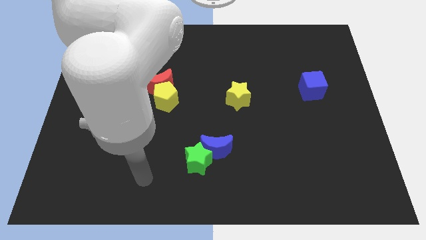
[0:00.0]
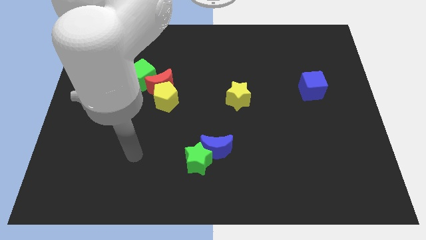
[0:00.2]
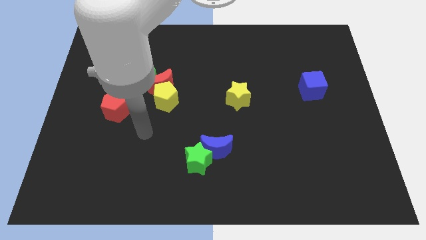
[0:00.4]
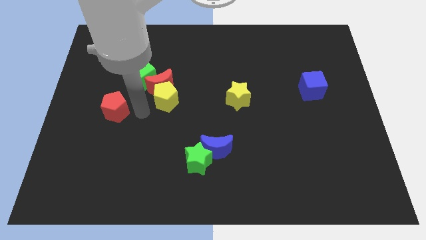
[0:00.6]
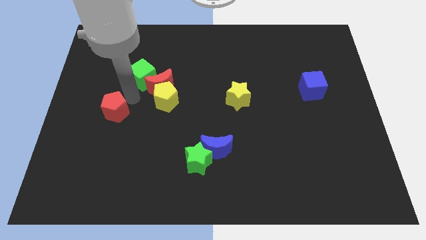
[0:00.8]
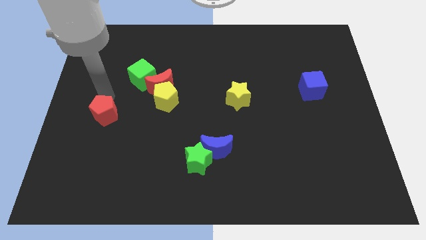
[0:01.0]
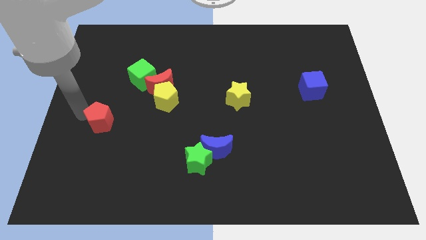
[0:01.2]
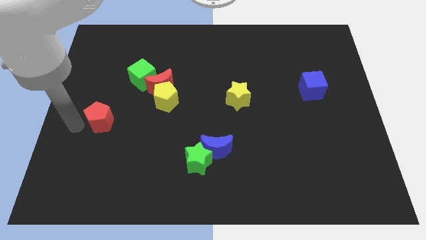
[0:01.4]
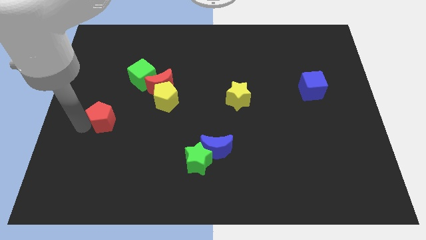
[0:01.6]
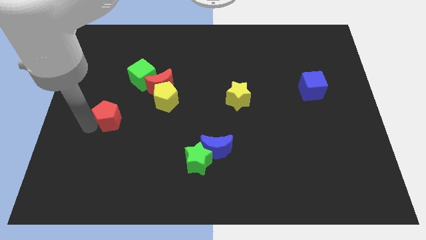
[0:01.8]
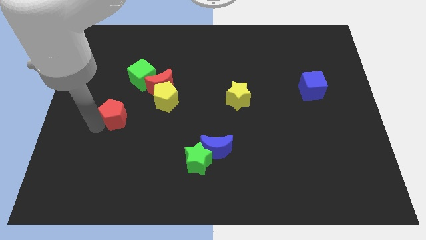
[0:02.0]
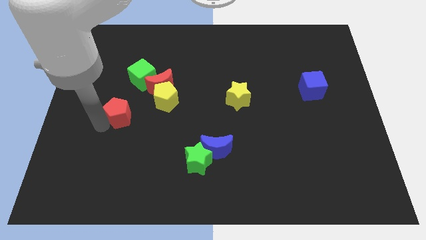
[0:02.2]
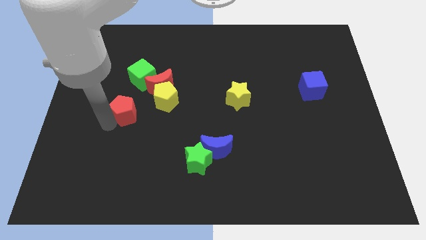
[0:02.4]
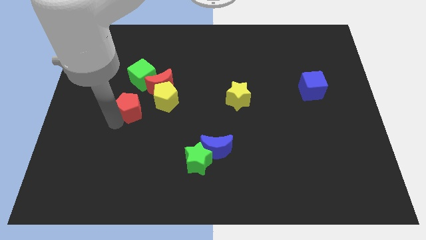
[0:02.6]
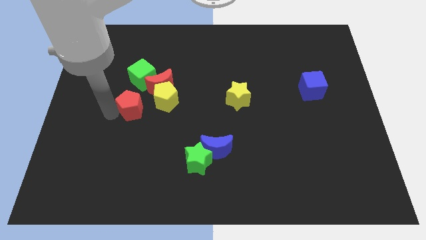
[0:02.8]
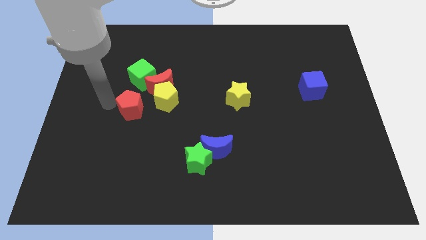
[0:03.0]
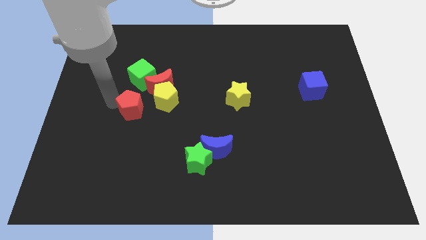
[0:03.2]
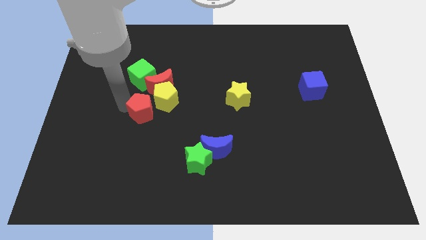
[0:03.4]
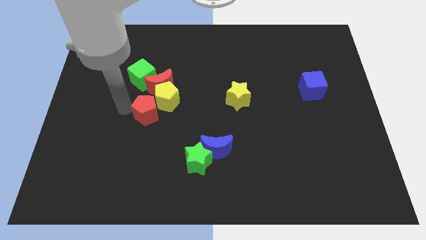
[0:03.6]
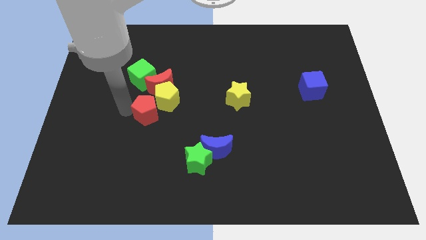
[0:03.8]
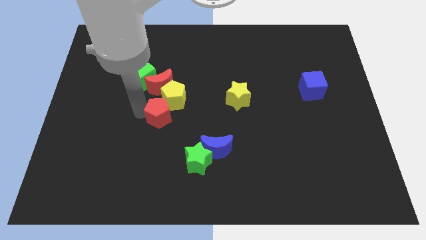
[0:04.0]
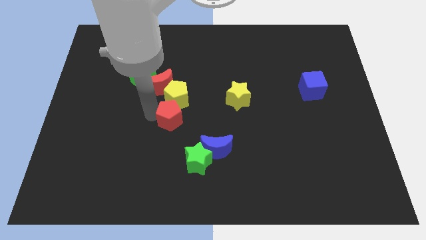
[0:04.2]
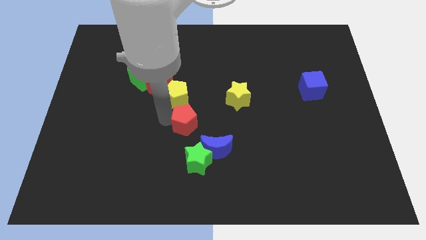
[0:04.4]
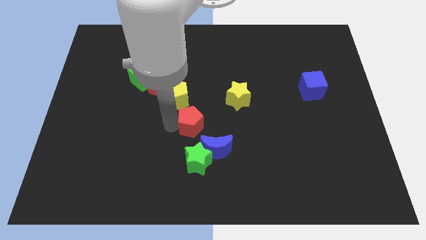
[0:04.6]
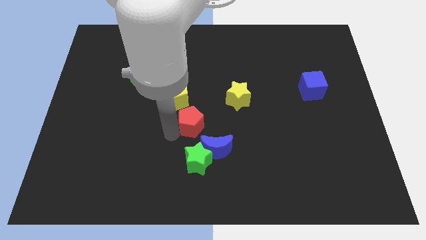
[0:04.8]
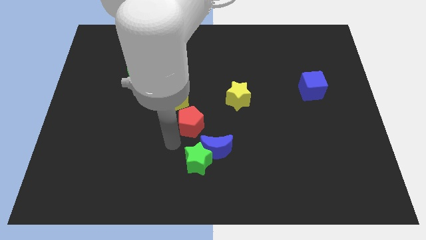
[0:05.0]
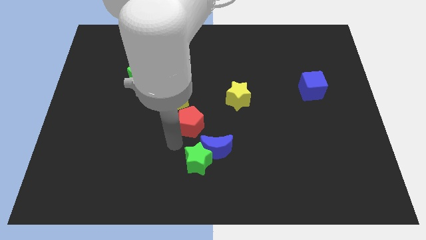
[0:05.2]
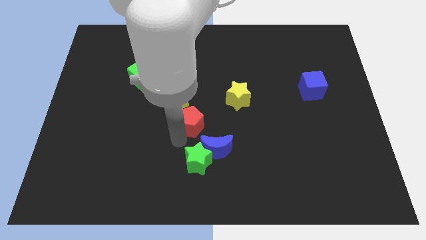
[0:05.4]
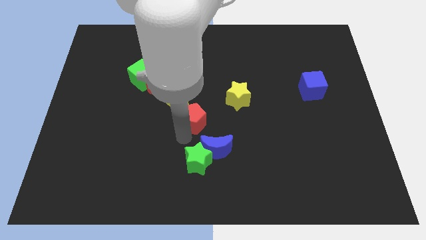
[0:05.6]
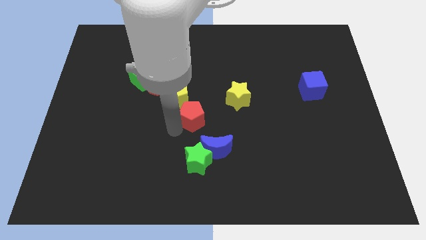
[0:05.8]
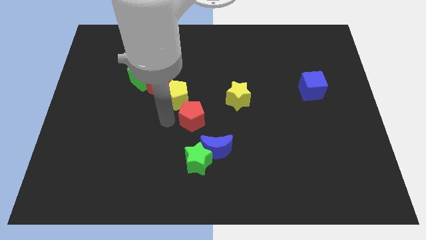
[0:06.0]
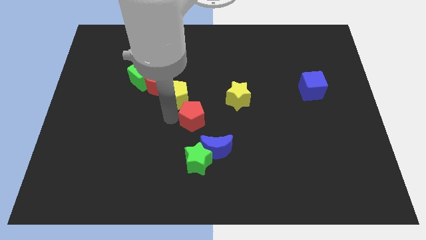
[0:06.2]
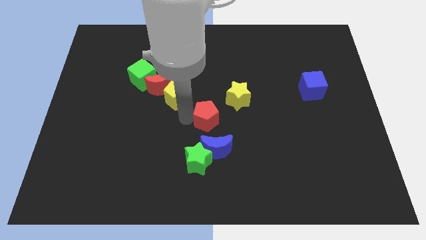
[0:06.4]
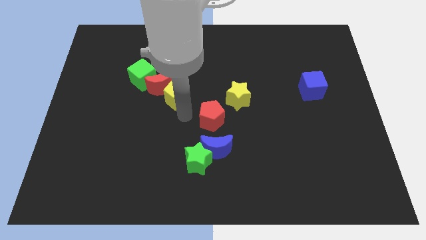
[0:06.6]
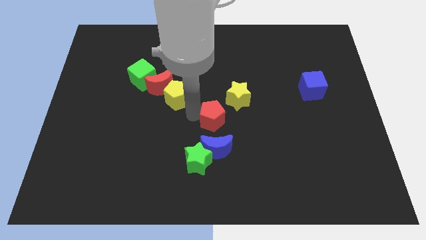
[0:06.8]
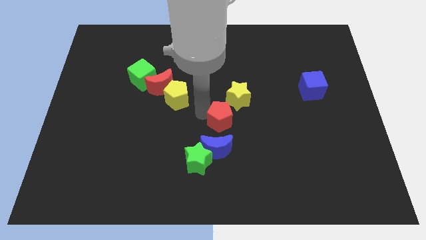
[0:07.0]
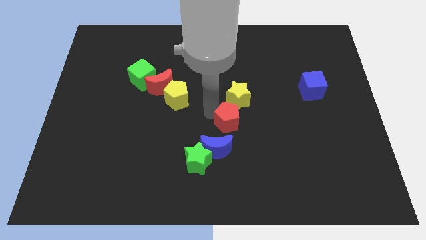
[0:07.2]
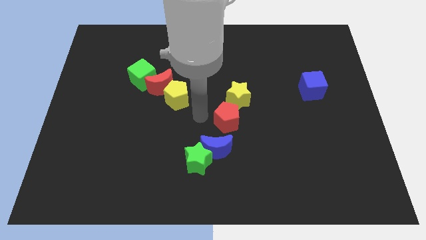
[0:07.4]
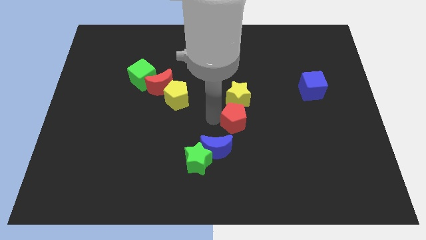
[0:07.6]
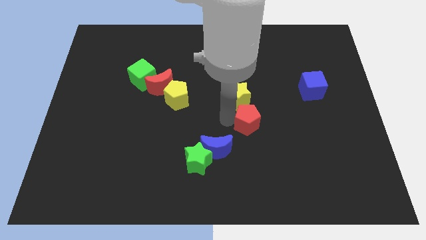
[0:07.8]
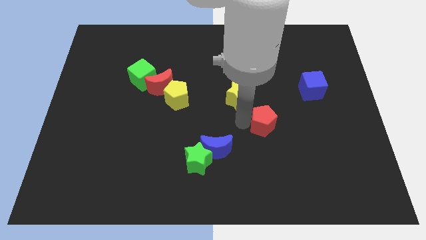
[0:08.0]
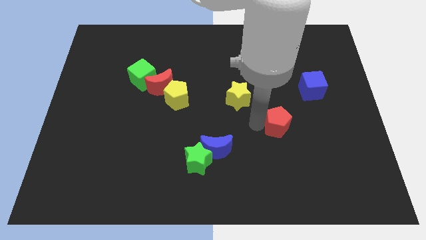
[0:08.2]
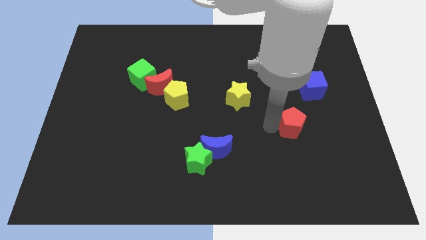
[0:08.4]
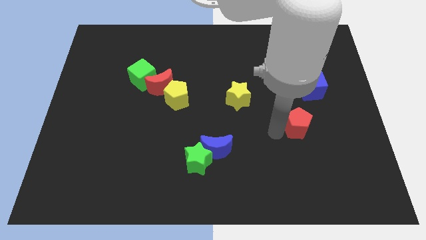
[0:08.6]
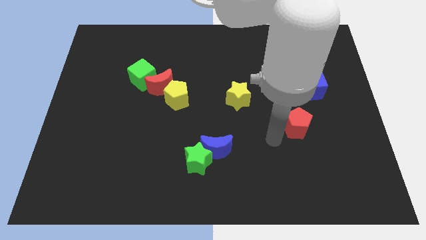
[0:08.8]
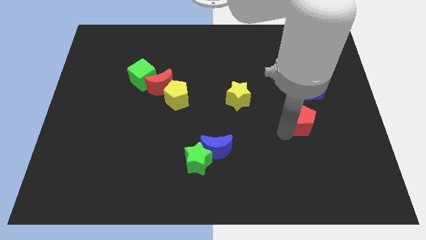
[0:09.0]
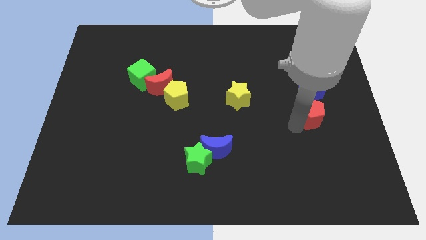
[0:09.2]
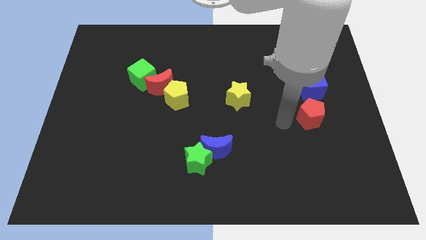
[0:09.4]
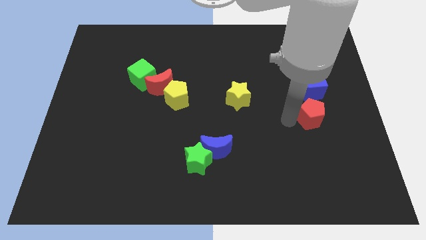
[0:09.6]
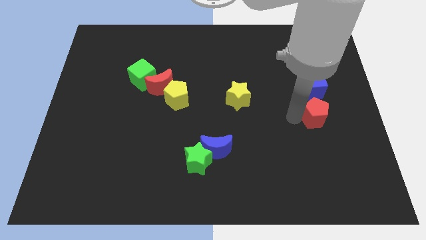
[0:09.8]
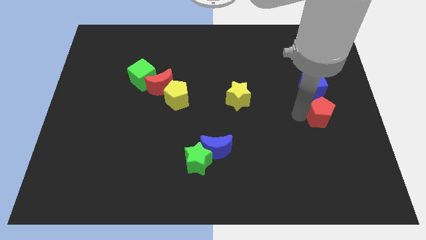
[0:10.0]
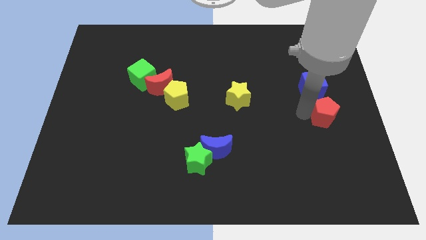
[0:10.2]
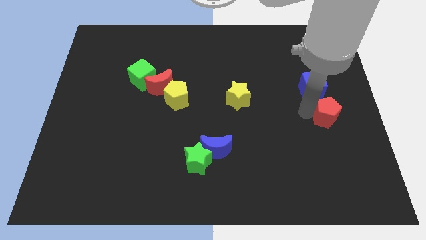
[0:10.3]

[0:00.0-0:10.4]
move the red pentagon to the right side

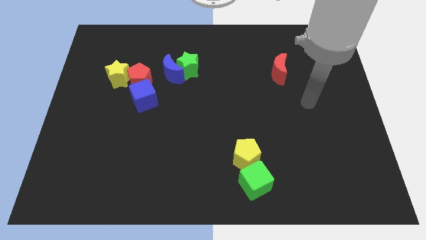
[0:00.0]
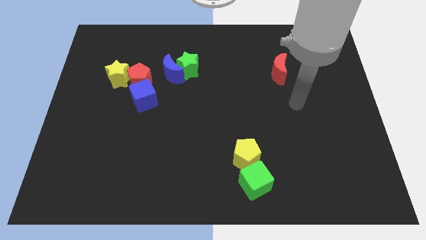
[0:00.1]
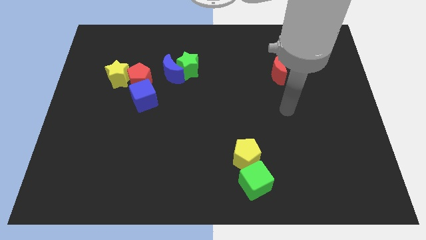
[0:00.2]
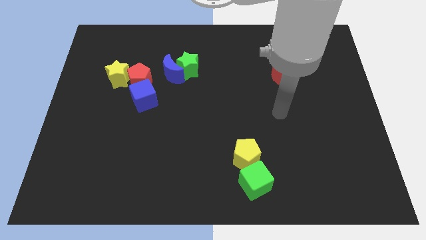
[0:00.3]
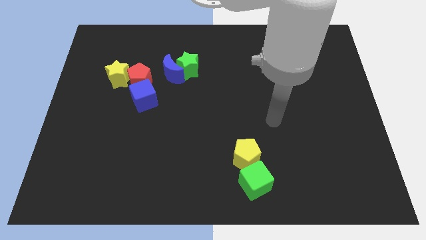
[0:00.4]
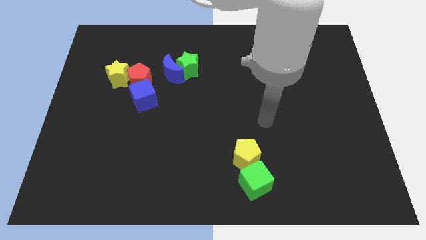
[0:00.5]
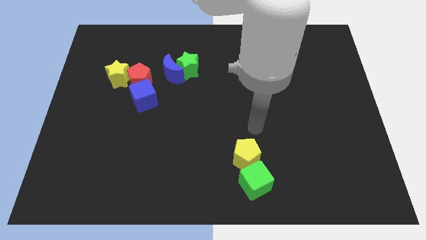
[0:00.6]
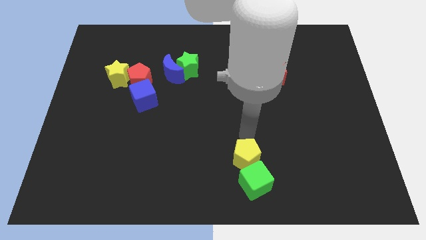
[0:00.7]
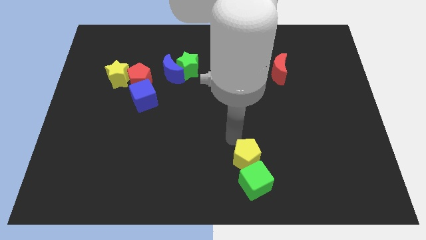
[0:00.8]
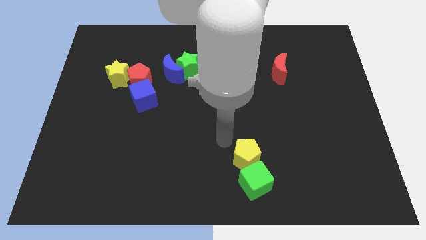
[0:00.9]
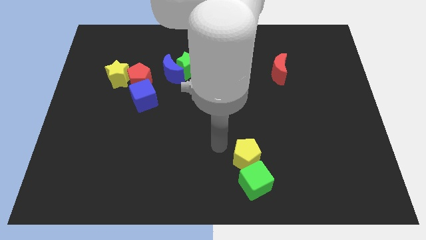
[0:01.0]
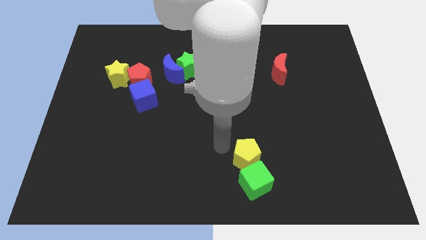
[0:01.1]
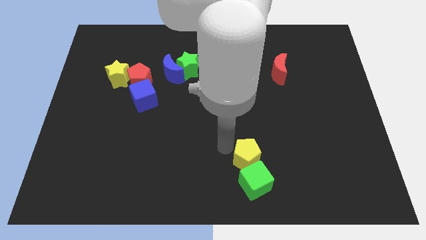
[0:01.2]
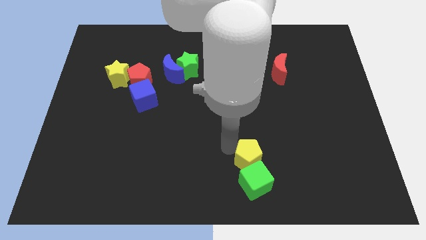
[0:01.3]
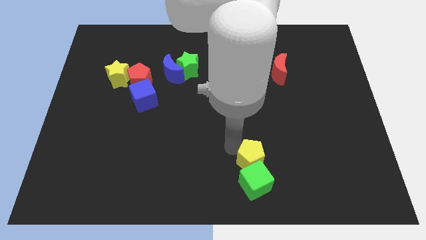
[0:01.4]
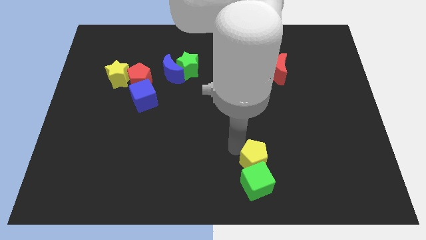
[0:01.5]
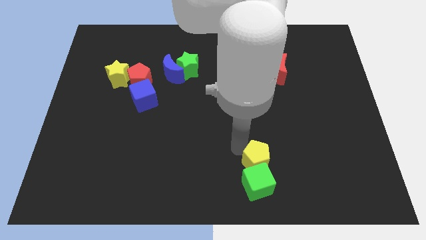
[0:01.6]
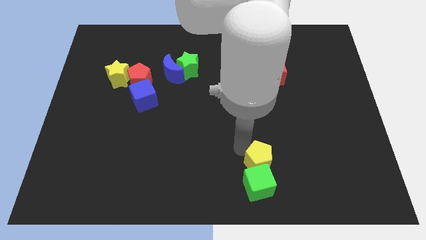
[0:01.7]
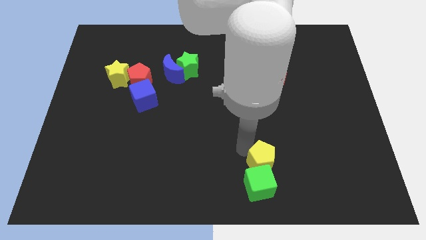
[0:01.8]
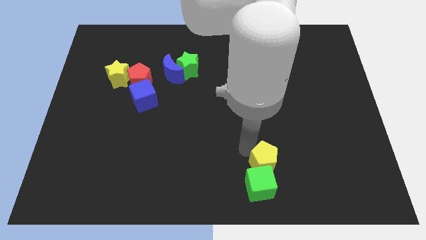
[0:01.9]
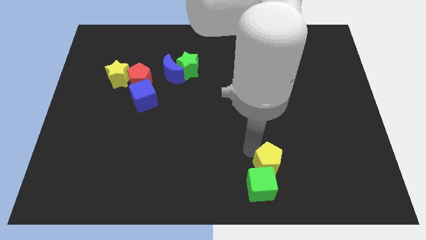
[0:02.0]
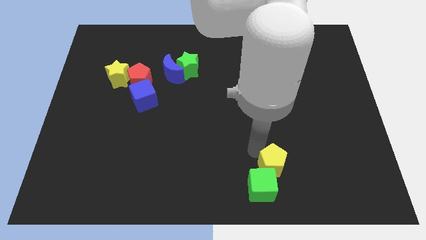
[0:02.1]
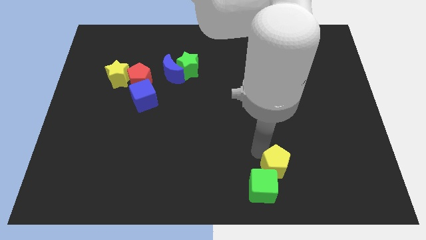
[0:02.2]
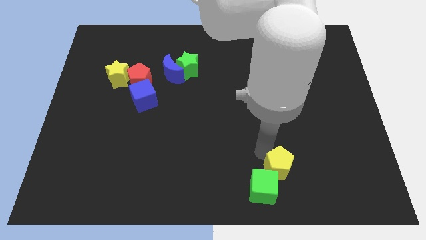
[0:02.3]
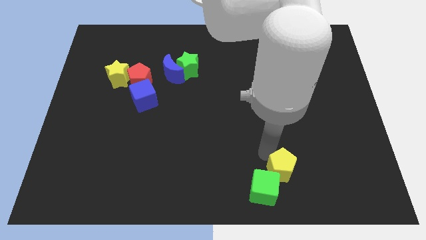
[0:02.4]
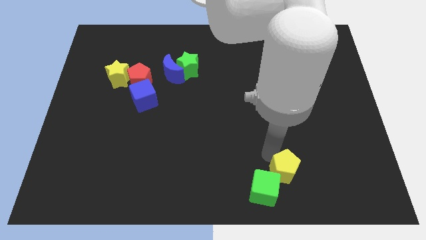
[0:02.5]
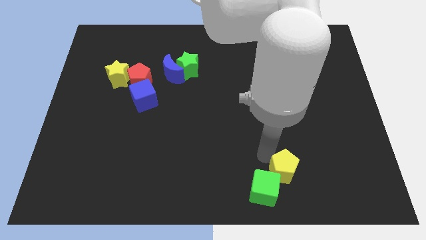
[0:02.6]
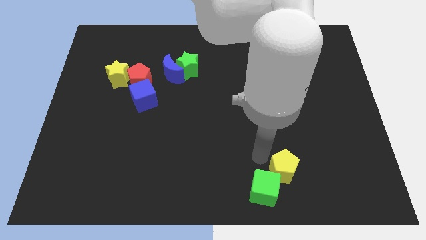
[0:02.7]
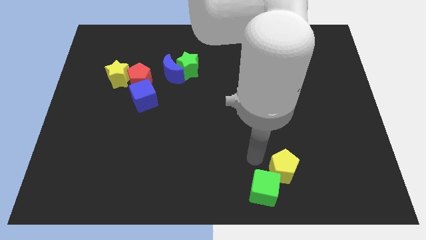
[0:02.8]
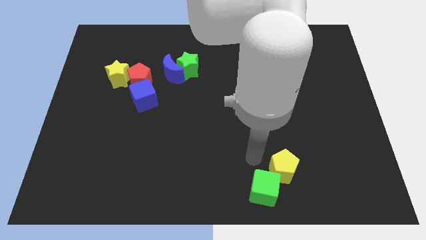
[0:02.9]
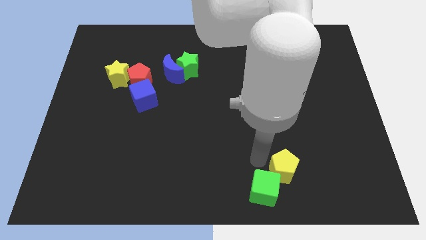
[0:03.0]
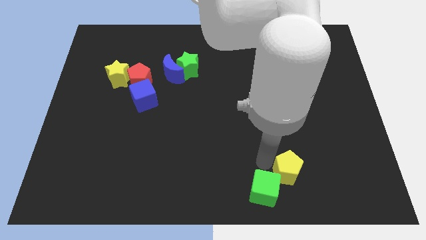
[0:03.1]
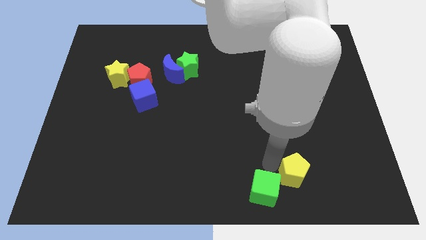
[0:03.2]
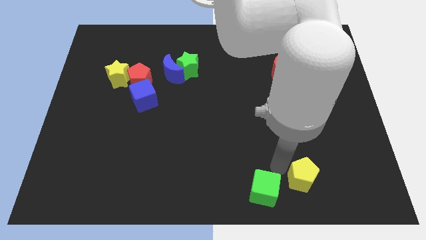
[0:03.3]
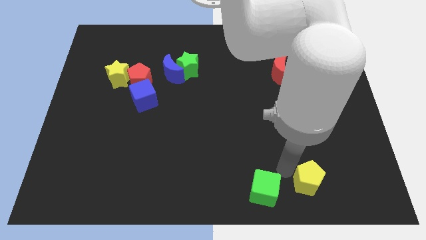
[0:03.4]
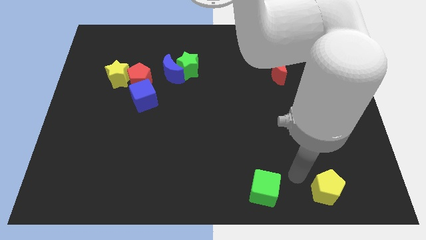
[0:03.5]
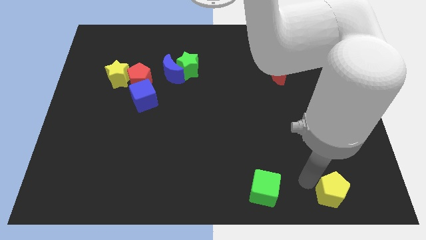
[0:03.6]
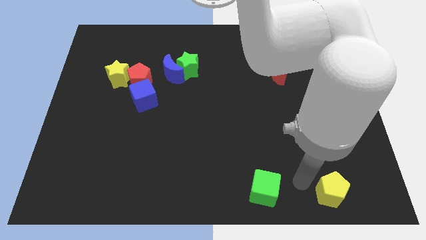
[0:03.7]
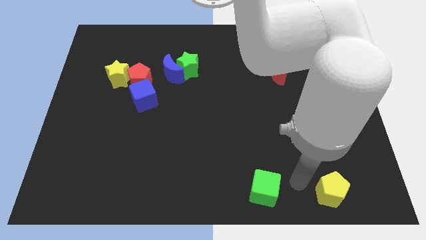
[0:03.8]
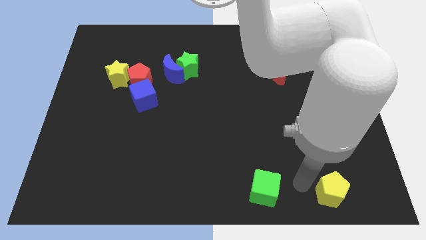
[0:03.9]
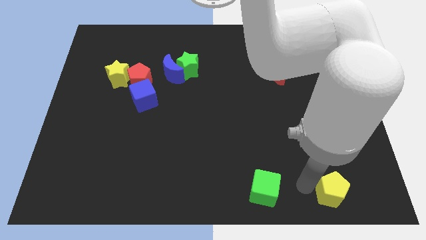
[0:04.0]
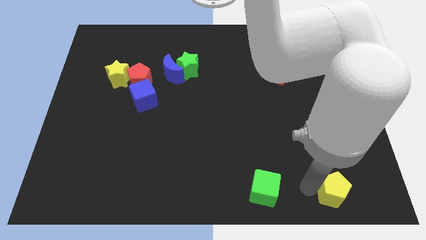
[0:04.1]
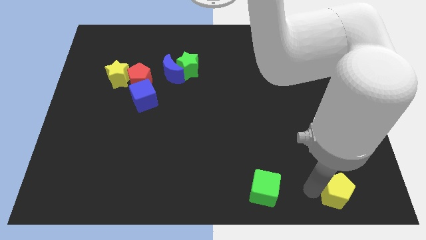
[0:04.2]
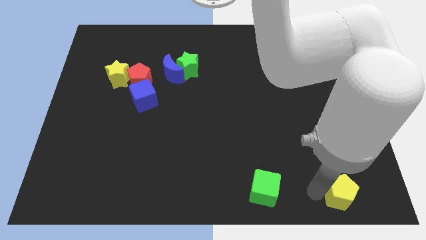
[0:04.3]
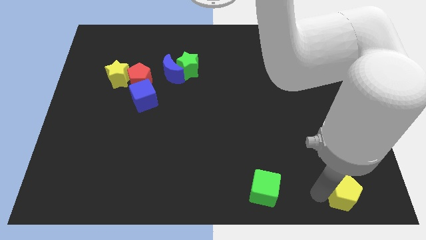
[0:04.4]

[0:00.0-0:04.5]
slide the yellow pentagon to the bottom right corner
